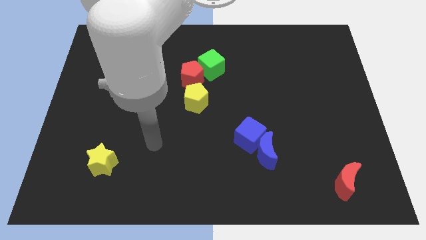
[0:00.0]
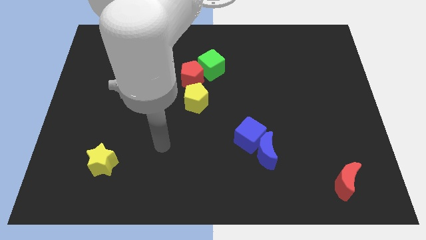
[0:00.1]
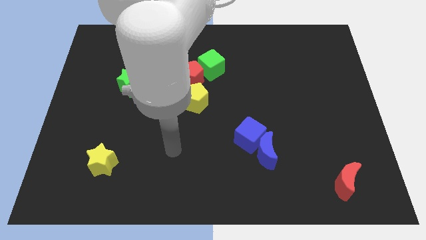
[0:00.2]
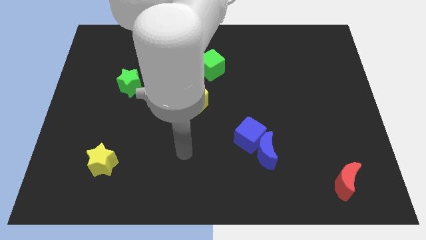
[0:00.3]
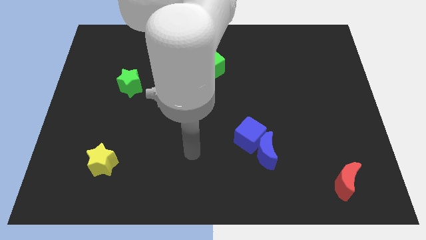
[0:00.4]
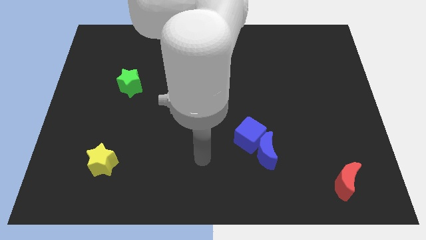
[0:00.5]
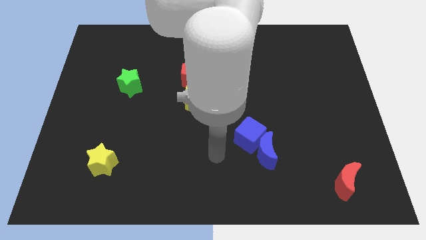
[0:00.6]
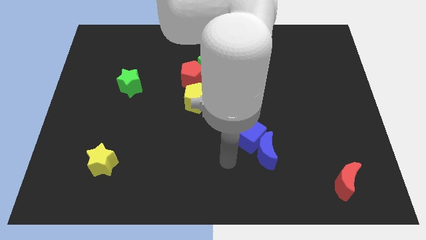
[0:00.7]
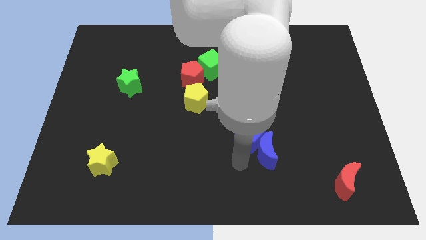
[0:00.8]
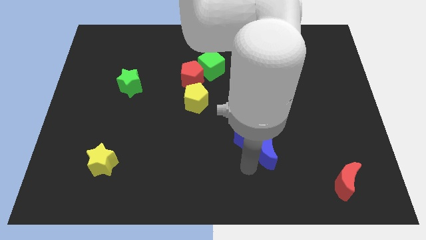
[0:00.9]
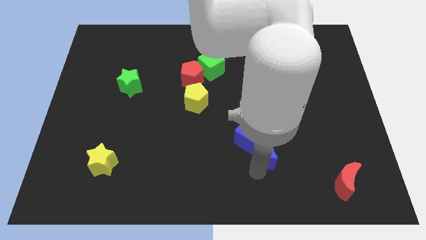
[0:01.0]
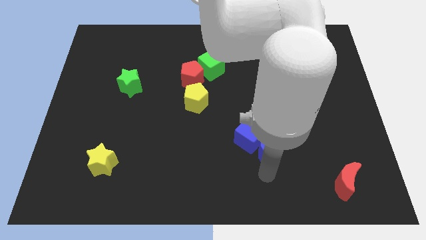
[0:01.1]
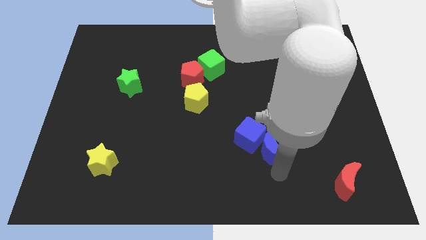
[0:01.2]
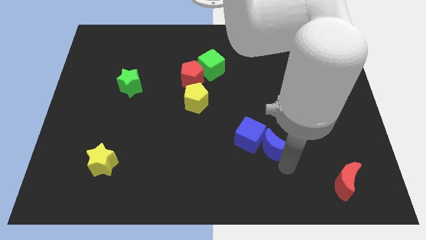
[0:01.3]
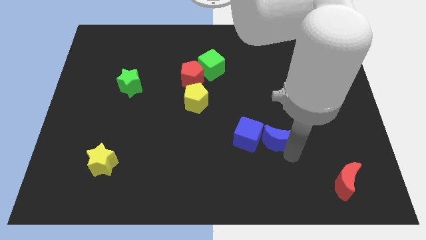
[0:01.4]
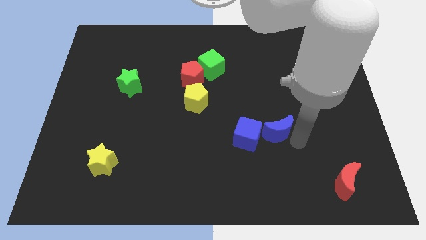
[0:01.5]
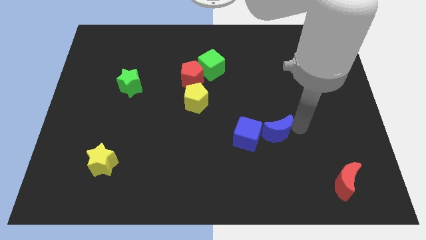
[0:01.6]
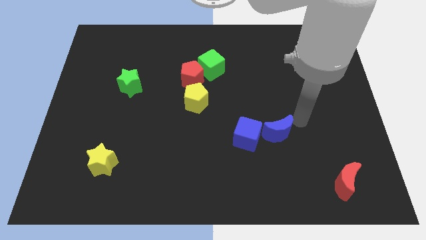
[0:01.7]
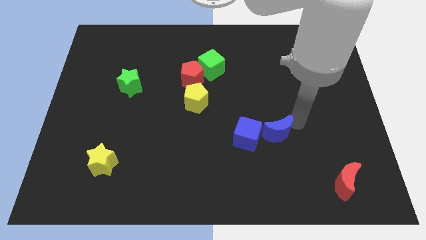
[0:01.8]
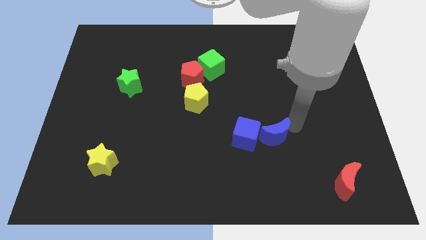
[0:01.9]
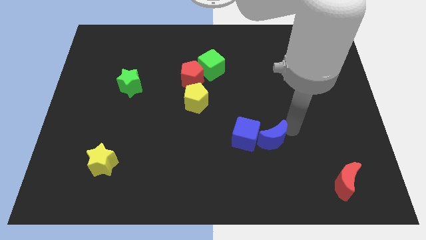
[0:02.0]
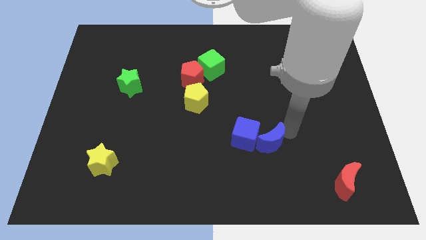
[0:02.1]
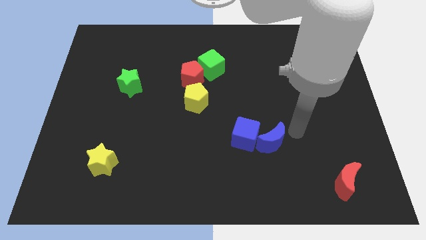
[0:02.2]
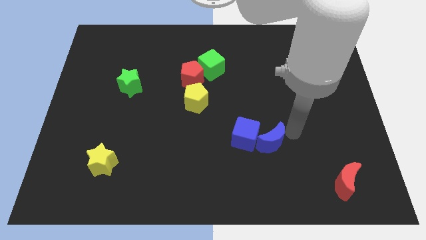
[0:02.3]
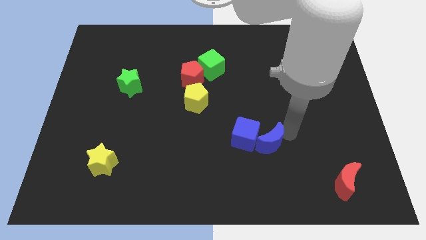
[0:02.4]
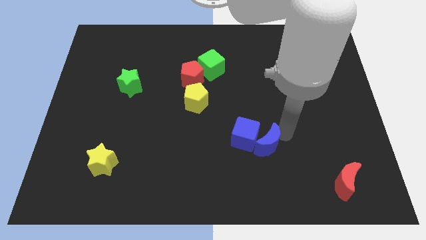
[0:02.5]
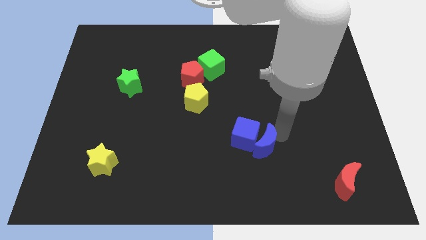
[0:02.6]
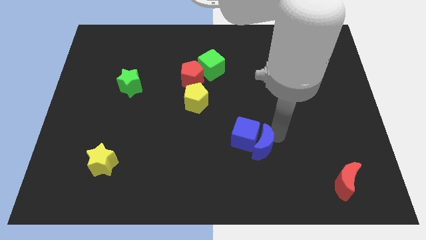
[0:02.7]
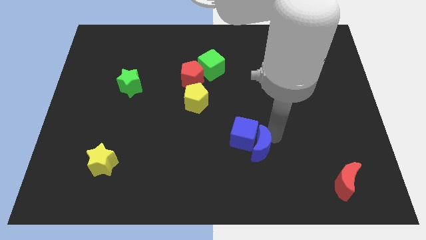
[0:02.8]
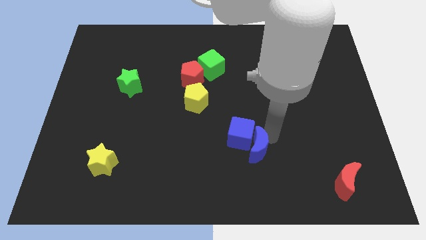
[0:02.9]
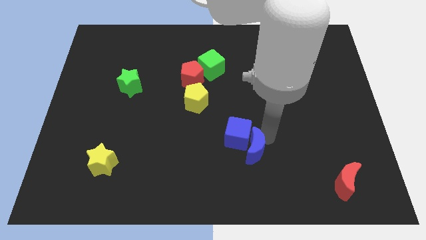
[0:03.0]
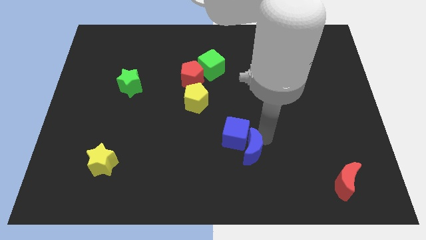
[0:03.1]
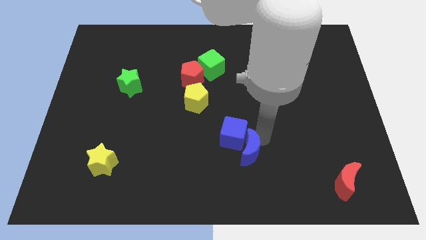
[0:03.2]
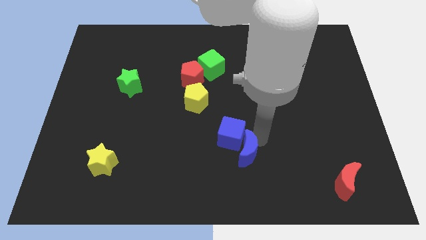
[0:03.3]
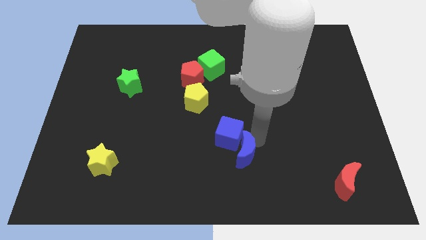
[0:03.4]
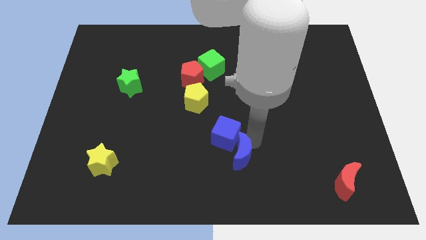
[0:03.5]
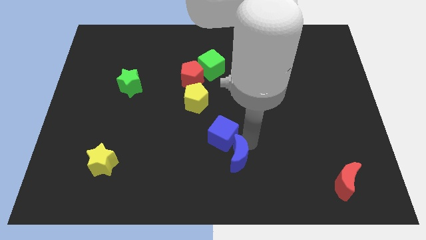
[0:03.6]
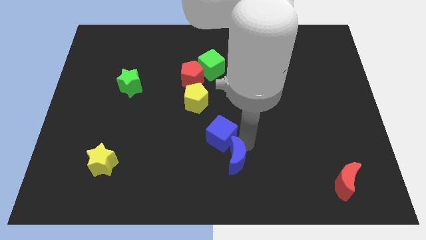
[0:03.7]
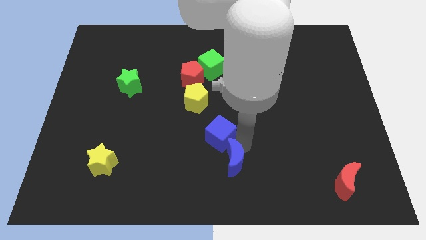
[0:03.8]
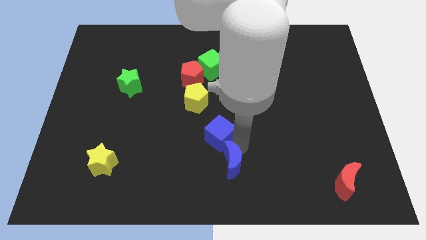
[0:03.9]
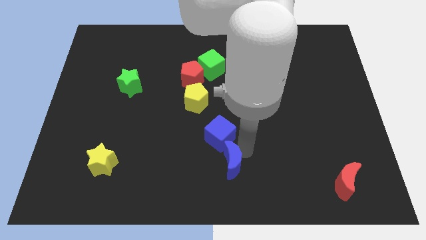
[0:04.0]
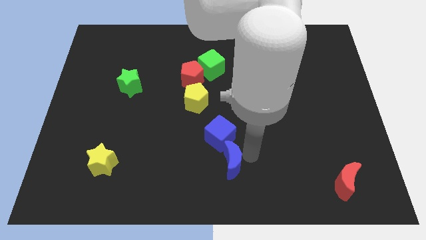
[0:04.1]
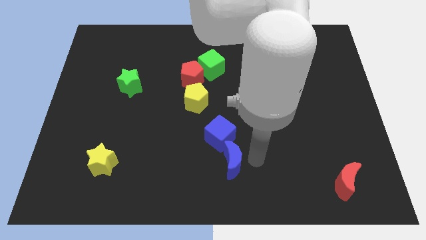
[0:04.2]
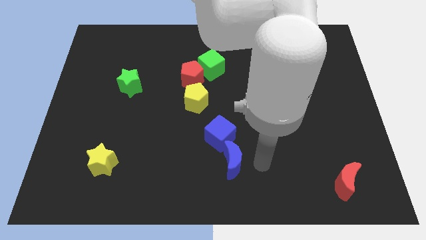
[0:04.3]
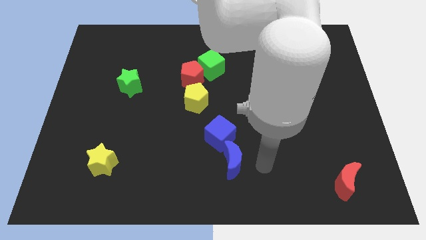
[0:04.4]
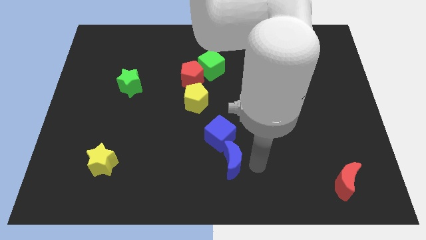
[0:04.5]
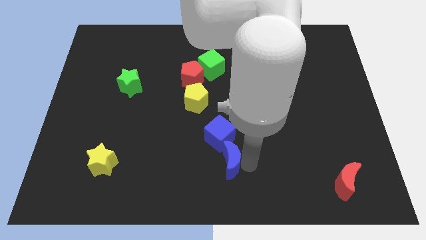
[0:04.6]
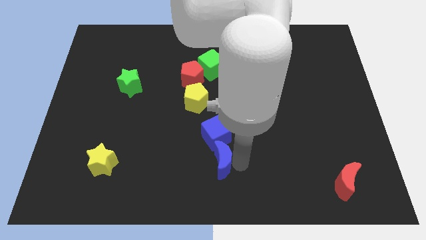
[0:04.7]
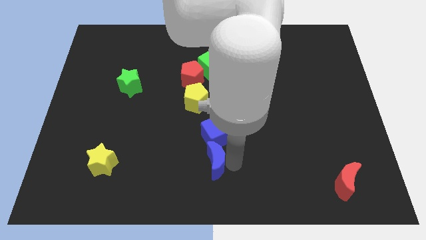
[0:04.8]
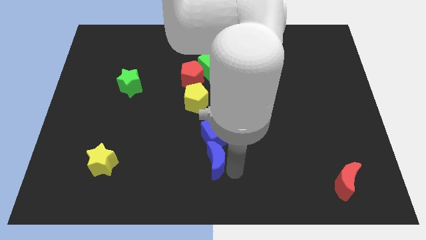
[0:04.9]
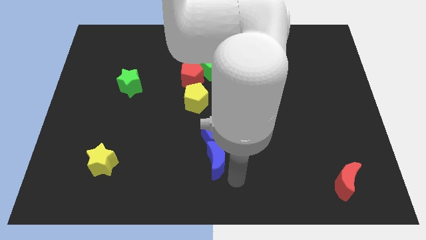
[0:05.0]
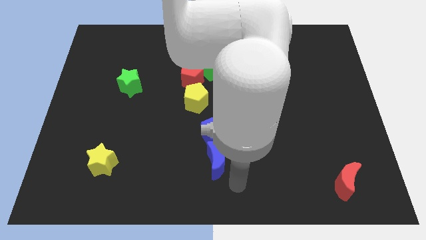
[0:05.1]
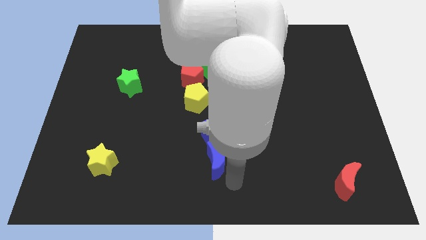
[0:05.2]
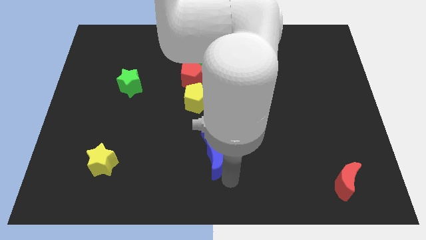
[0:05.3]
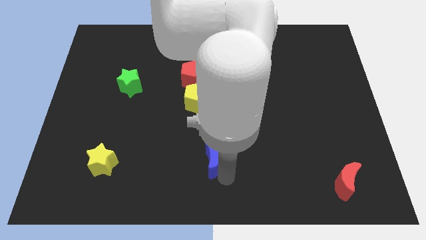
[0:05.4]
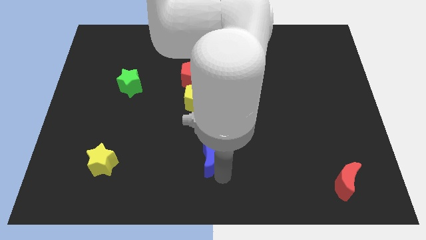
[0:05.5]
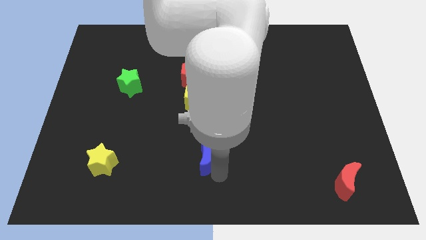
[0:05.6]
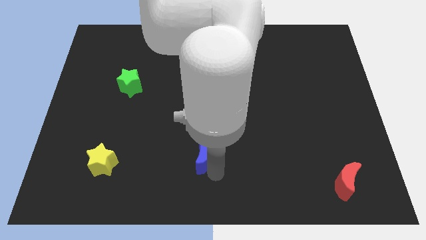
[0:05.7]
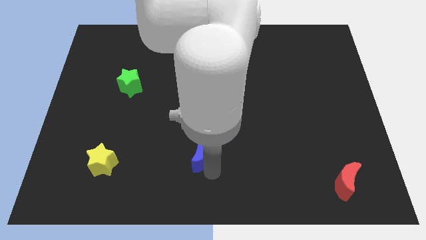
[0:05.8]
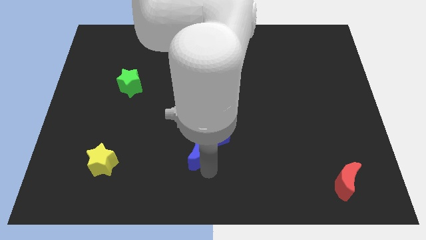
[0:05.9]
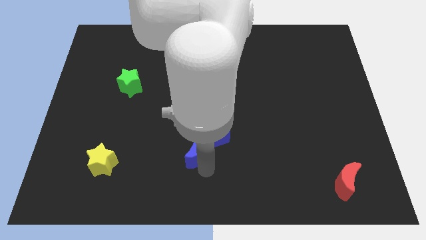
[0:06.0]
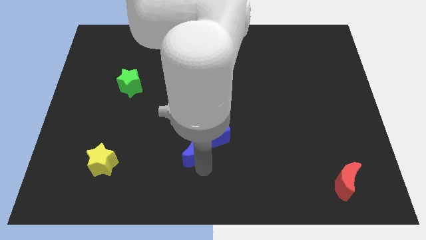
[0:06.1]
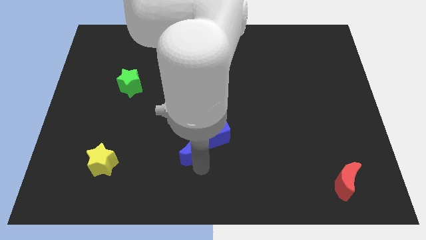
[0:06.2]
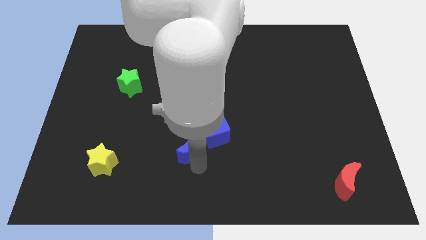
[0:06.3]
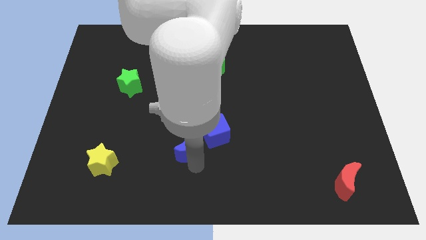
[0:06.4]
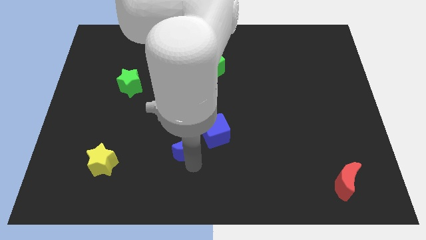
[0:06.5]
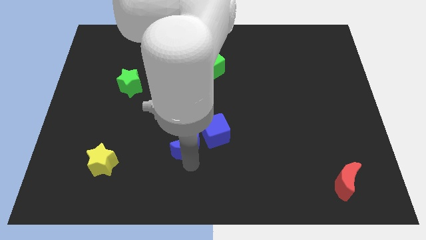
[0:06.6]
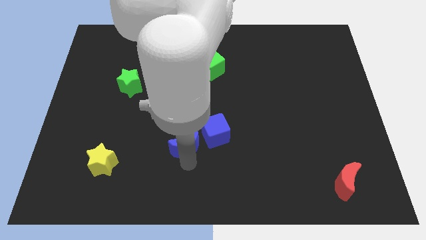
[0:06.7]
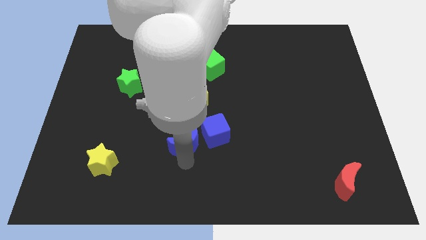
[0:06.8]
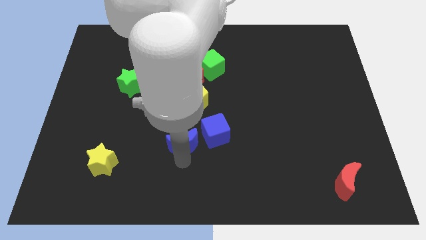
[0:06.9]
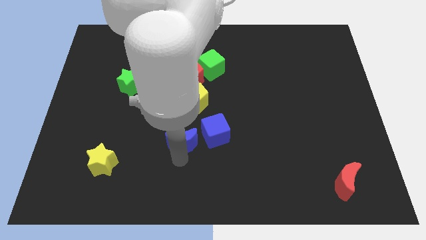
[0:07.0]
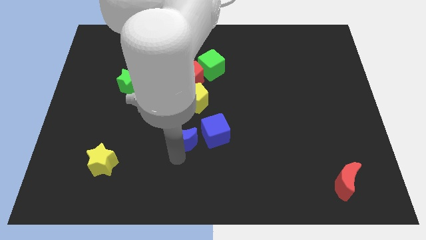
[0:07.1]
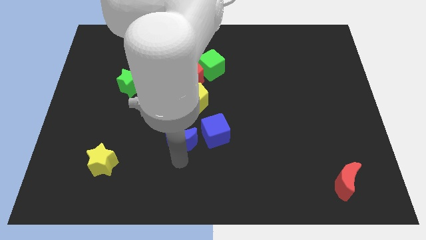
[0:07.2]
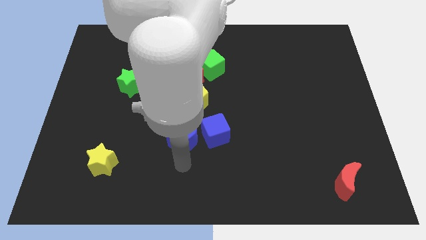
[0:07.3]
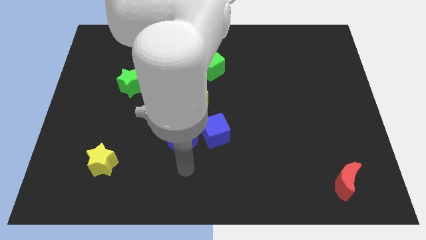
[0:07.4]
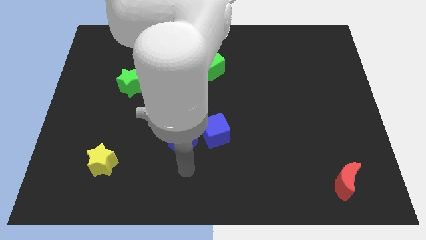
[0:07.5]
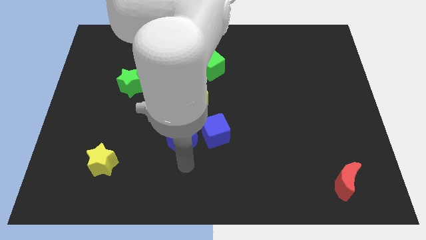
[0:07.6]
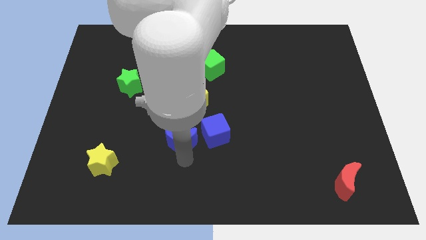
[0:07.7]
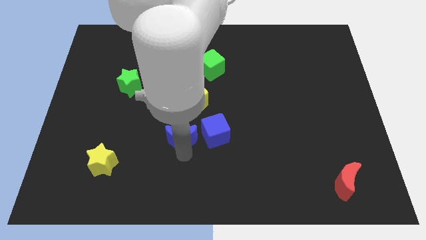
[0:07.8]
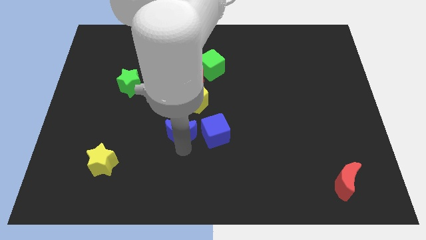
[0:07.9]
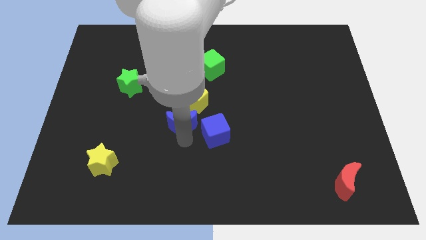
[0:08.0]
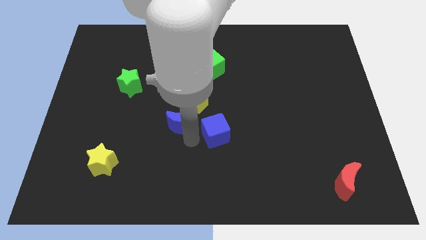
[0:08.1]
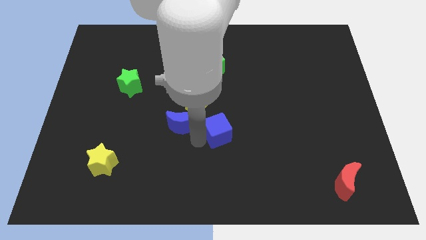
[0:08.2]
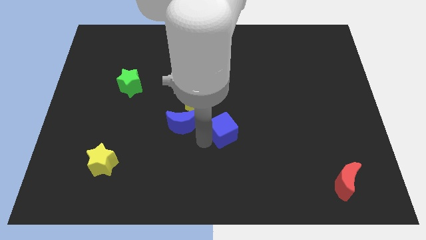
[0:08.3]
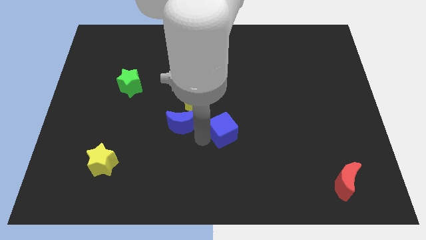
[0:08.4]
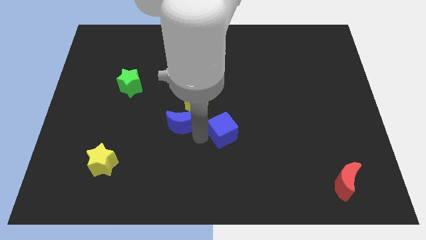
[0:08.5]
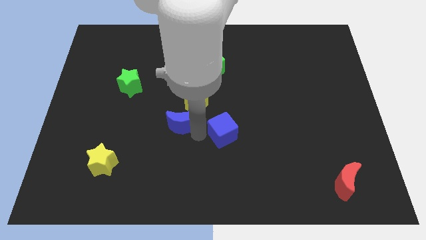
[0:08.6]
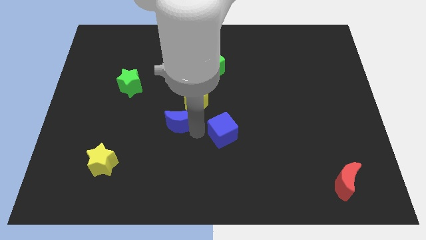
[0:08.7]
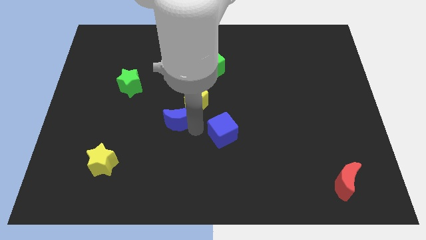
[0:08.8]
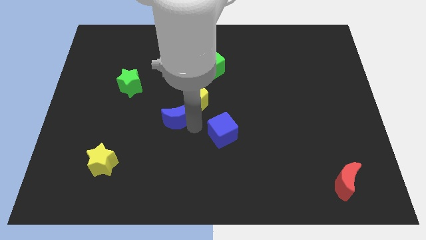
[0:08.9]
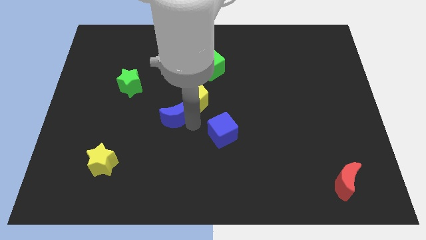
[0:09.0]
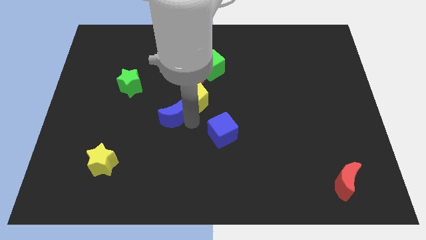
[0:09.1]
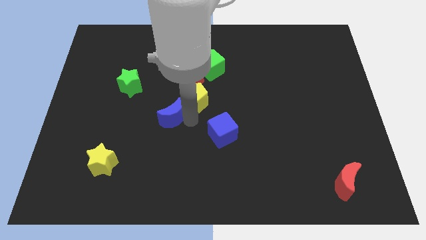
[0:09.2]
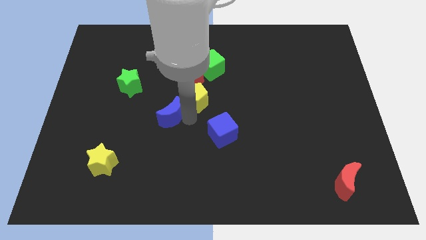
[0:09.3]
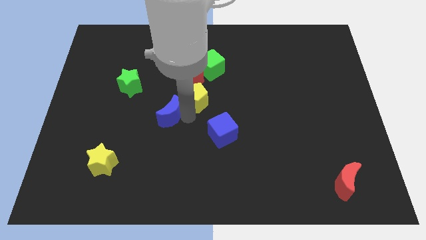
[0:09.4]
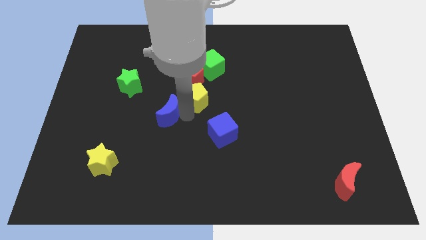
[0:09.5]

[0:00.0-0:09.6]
push the blue moon diagonally upwards and to the left
